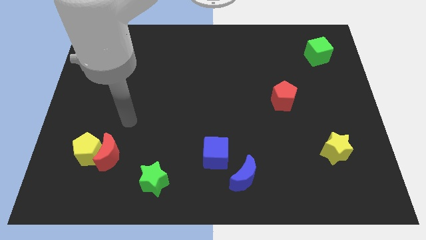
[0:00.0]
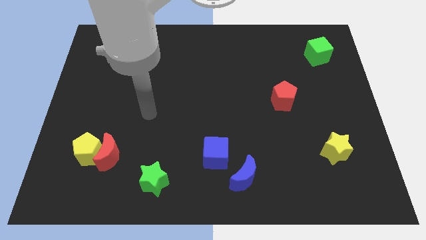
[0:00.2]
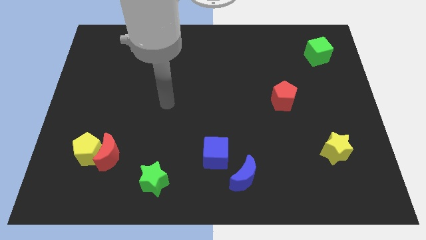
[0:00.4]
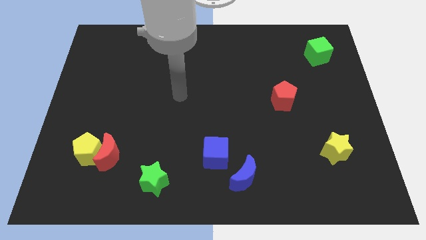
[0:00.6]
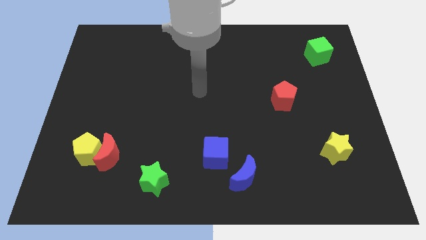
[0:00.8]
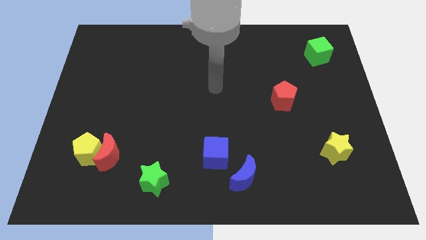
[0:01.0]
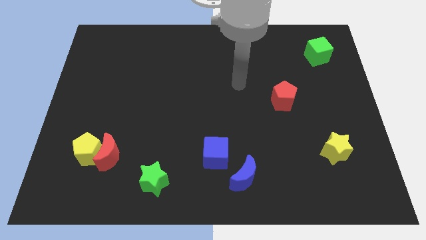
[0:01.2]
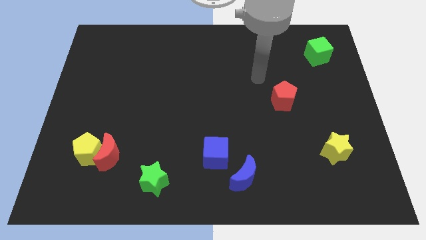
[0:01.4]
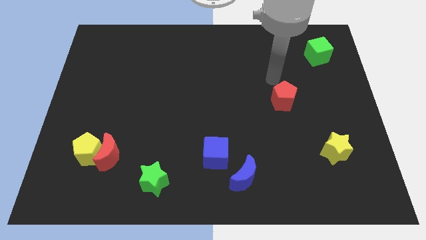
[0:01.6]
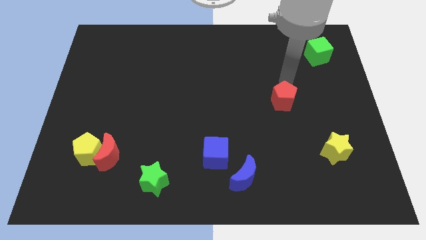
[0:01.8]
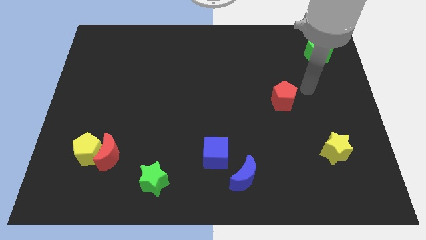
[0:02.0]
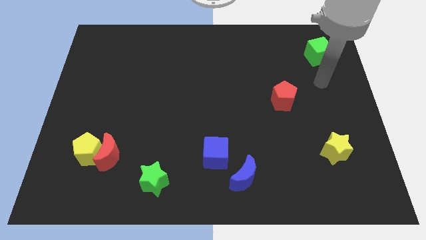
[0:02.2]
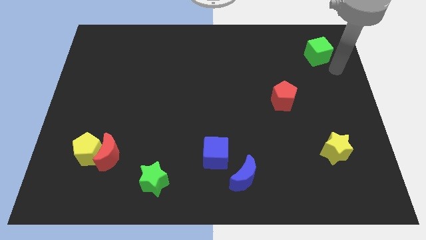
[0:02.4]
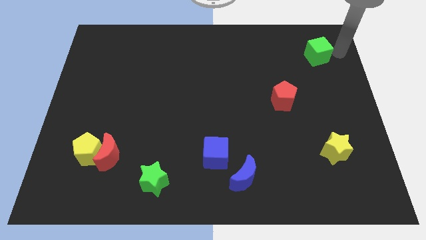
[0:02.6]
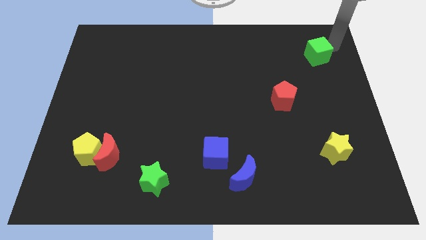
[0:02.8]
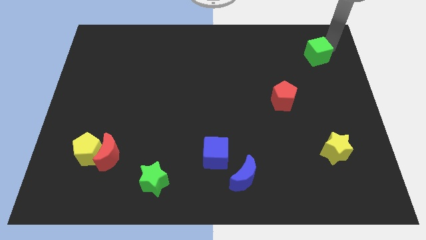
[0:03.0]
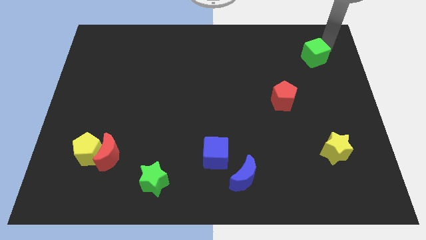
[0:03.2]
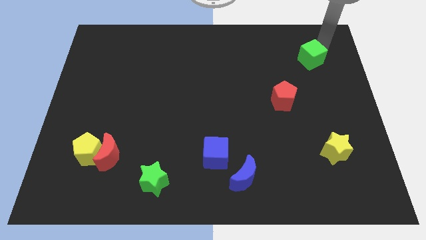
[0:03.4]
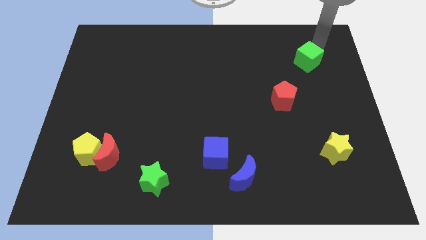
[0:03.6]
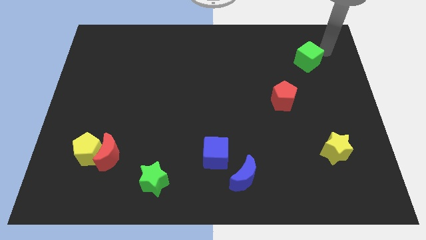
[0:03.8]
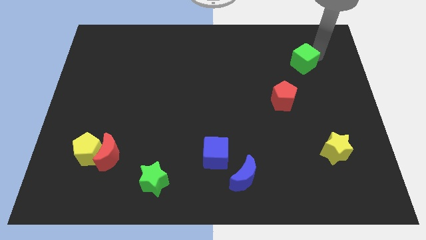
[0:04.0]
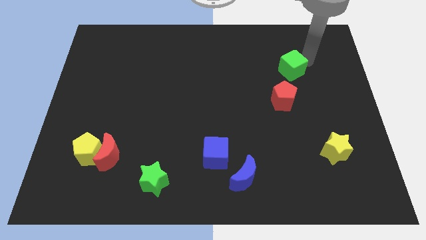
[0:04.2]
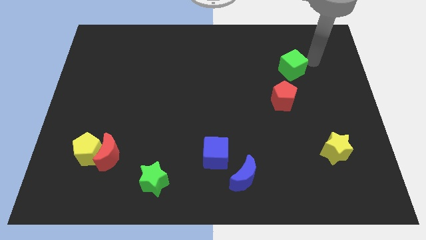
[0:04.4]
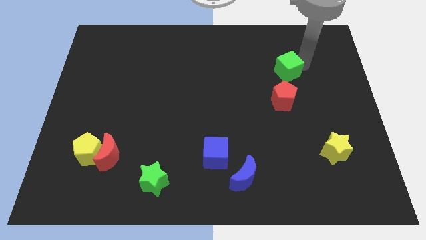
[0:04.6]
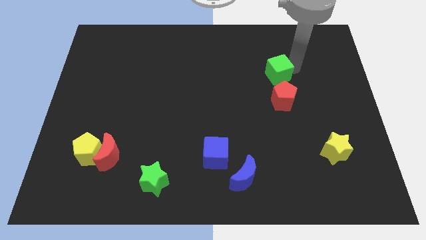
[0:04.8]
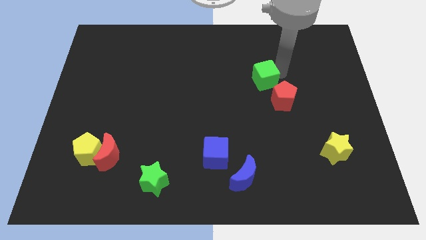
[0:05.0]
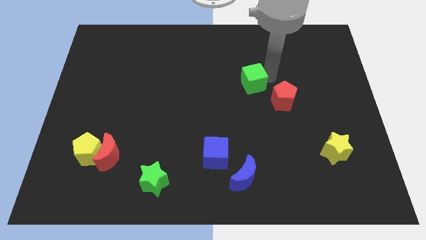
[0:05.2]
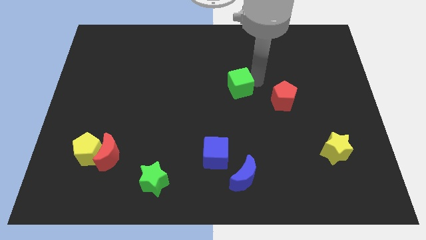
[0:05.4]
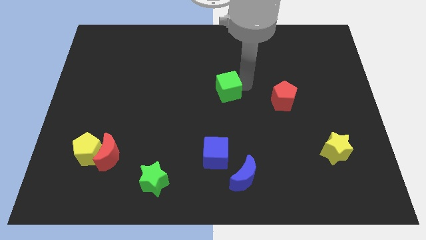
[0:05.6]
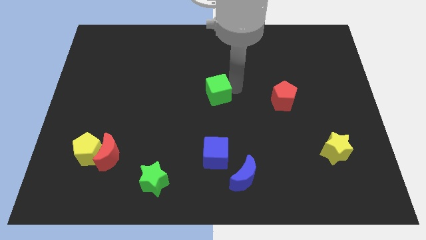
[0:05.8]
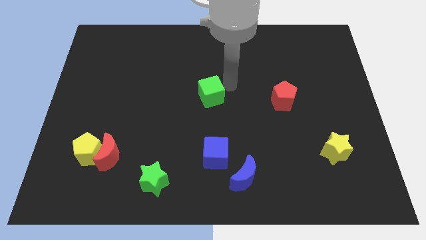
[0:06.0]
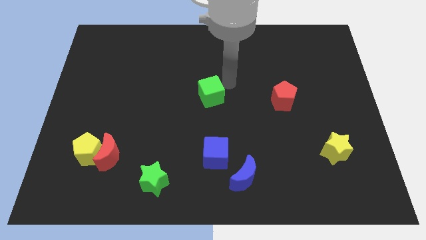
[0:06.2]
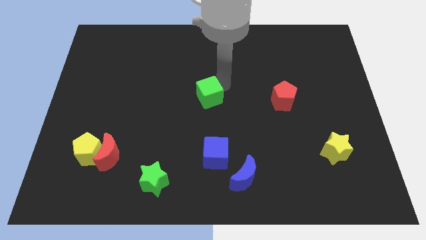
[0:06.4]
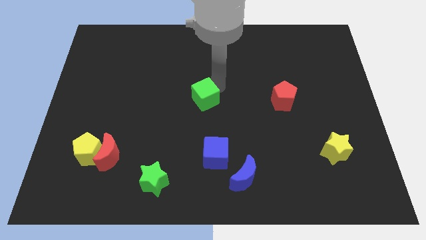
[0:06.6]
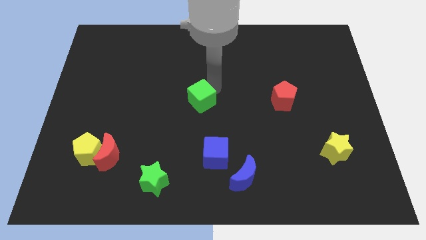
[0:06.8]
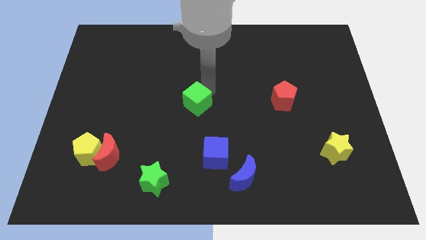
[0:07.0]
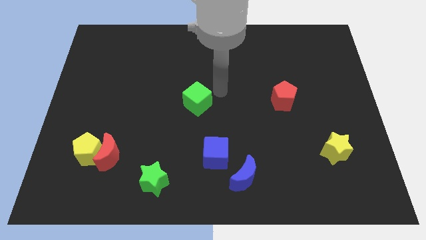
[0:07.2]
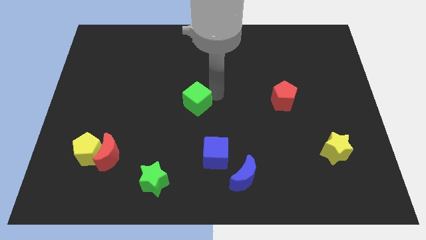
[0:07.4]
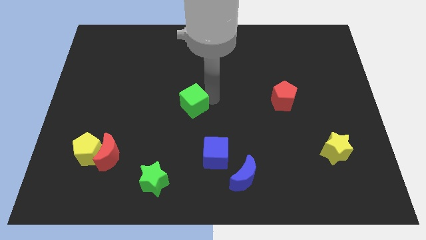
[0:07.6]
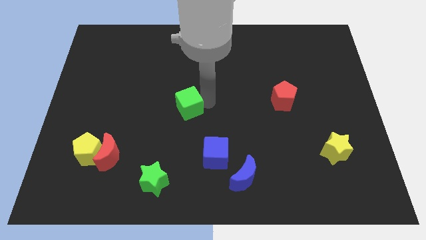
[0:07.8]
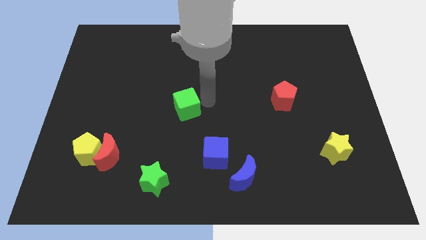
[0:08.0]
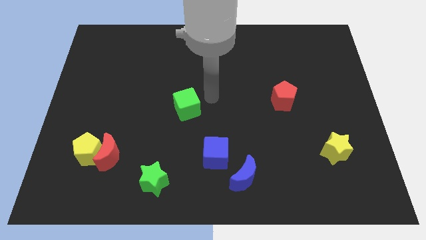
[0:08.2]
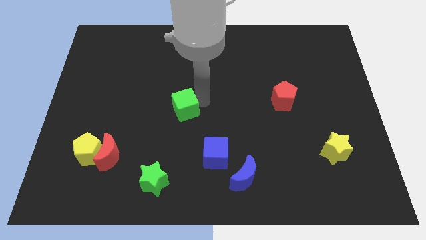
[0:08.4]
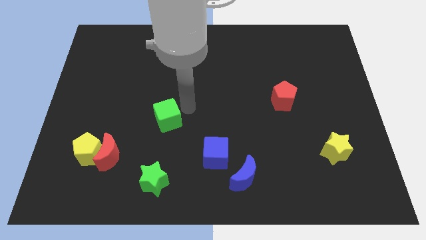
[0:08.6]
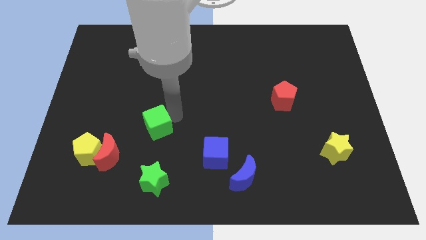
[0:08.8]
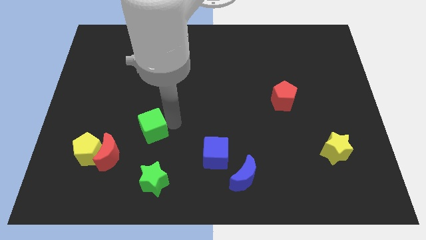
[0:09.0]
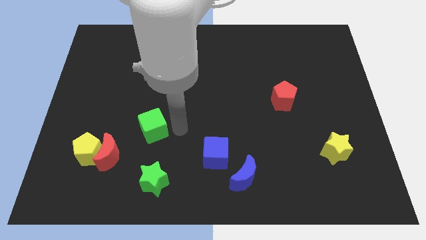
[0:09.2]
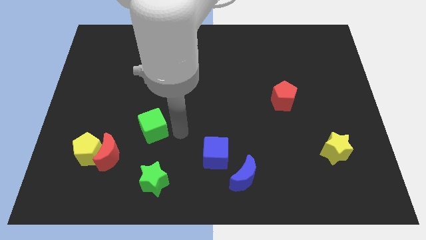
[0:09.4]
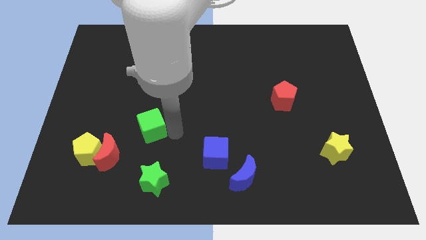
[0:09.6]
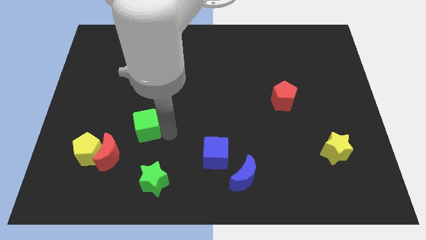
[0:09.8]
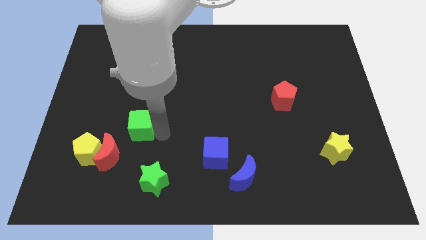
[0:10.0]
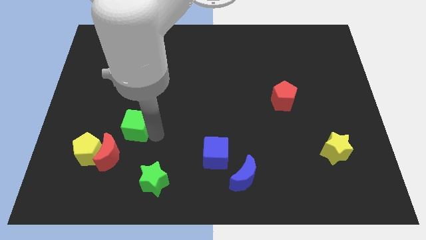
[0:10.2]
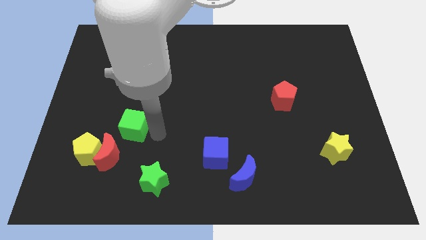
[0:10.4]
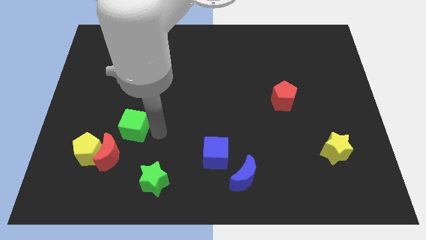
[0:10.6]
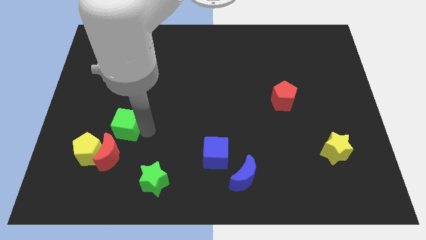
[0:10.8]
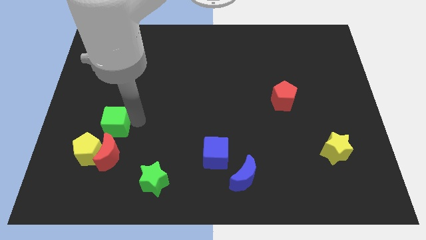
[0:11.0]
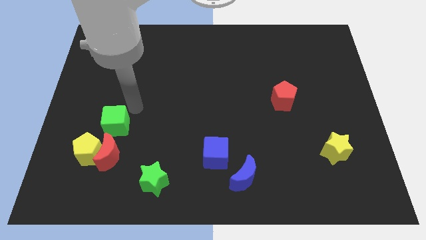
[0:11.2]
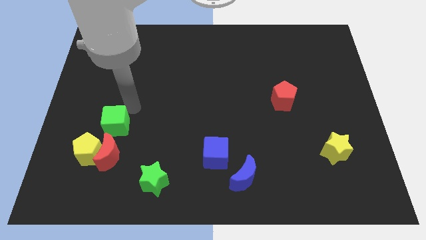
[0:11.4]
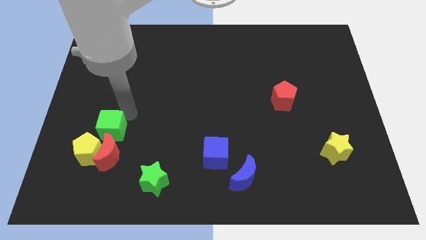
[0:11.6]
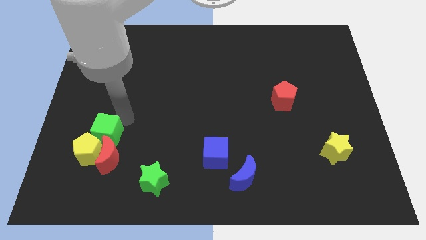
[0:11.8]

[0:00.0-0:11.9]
push the green cube towards the yellow pentagon

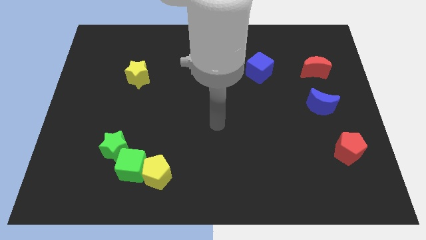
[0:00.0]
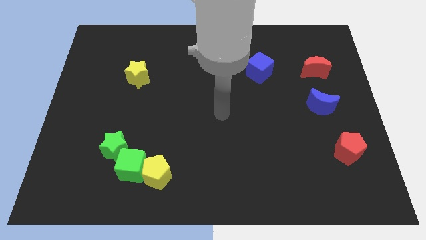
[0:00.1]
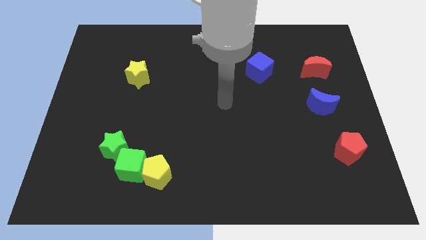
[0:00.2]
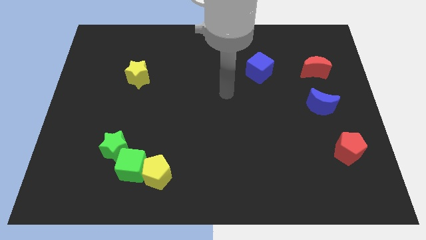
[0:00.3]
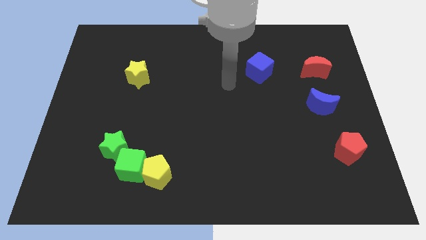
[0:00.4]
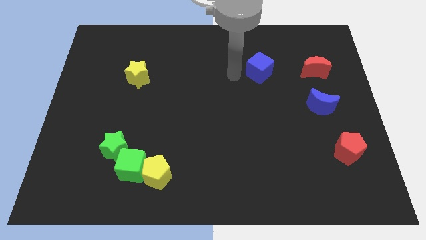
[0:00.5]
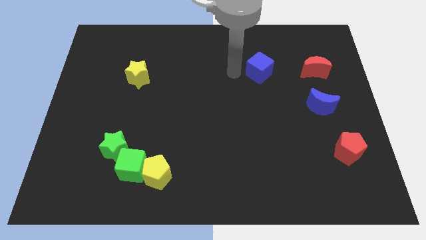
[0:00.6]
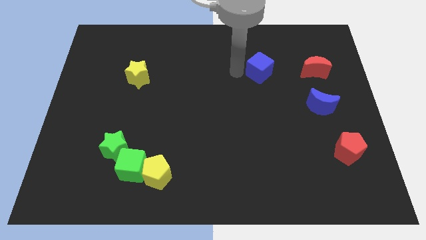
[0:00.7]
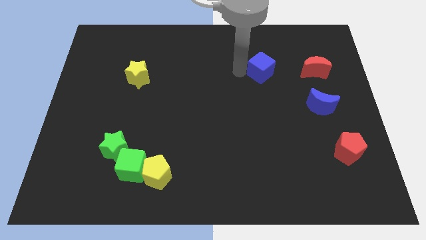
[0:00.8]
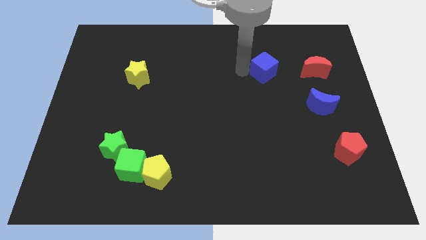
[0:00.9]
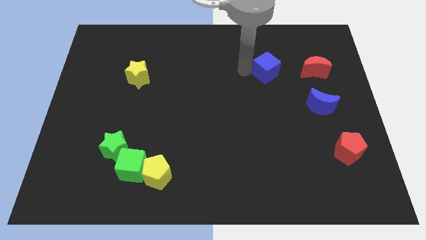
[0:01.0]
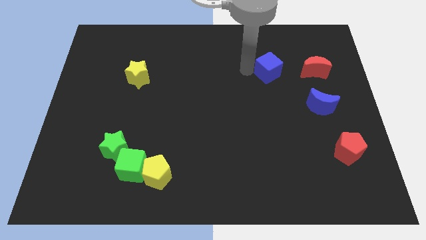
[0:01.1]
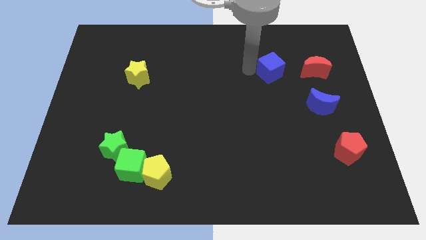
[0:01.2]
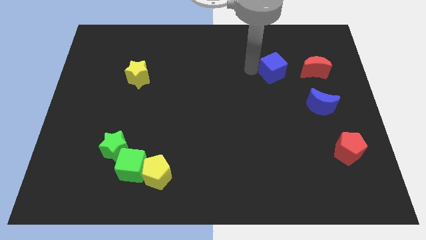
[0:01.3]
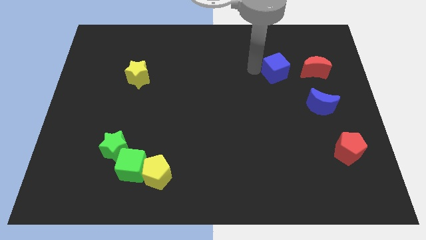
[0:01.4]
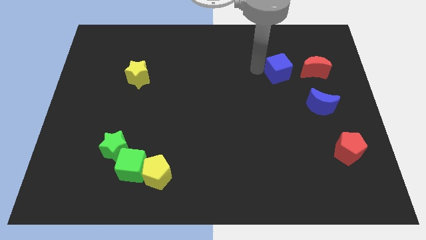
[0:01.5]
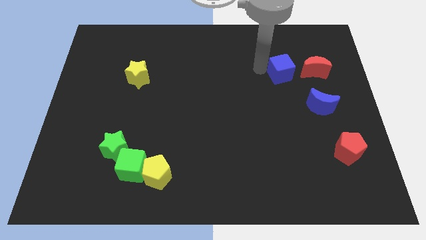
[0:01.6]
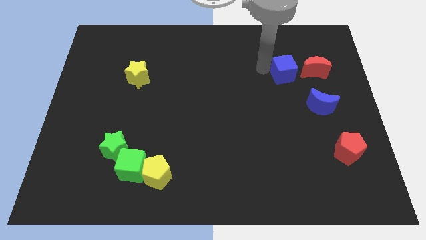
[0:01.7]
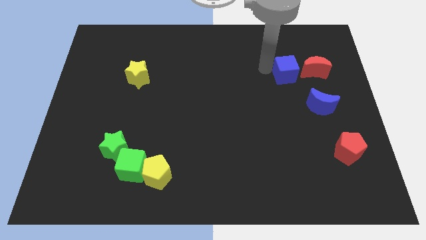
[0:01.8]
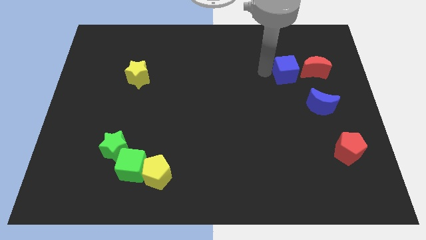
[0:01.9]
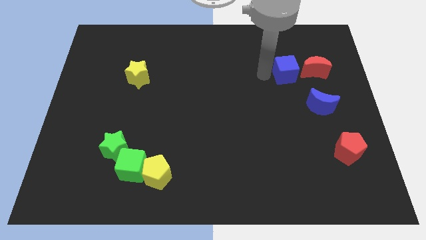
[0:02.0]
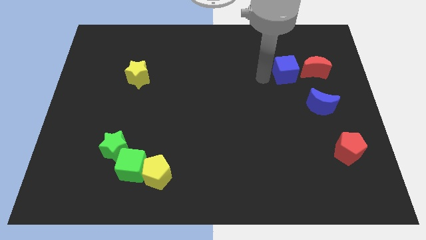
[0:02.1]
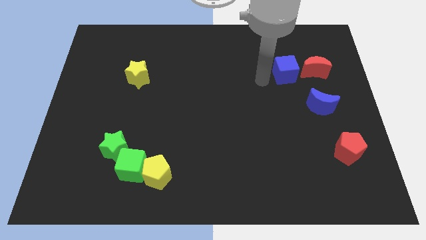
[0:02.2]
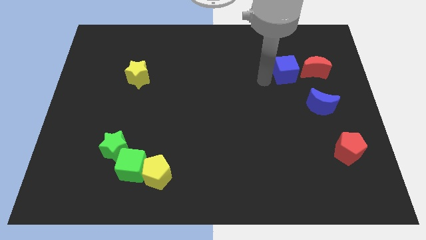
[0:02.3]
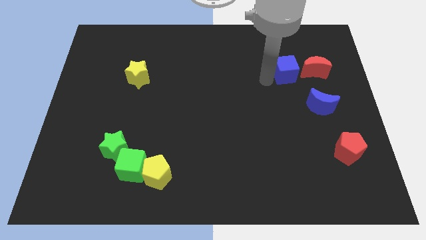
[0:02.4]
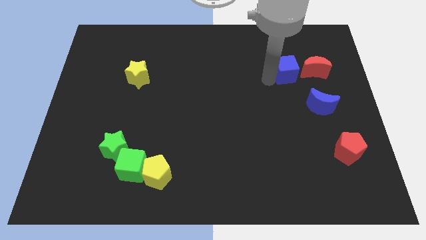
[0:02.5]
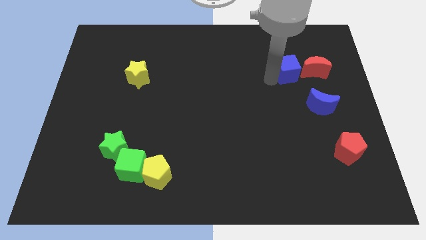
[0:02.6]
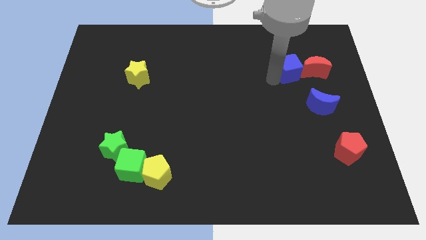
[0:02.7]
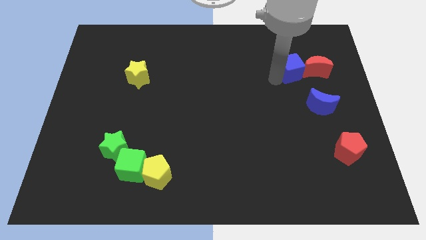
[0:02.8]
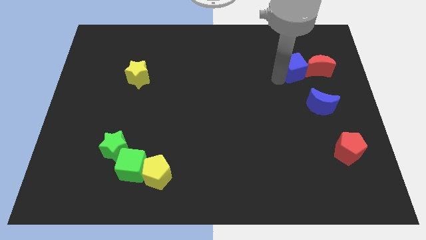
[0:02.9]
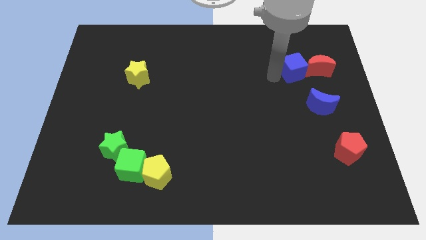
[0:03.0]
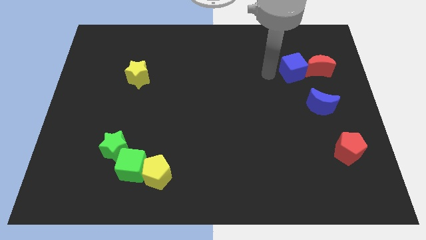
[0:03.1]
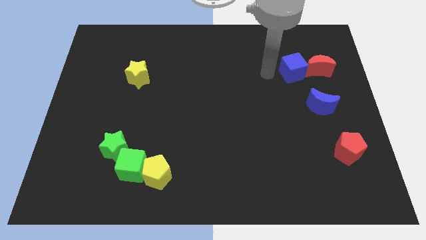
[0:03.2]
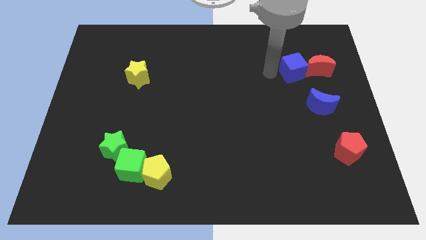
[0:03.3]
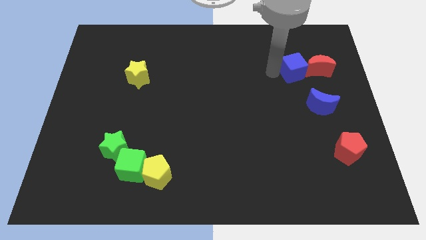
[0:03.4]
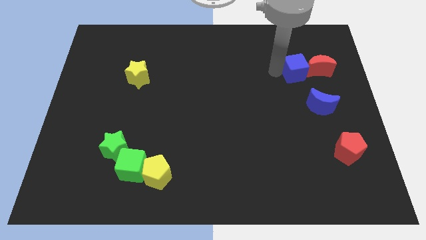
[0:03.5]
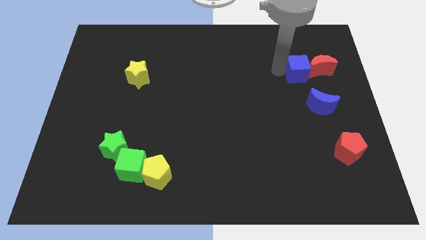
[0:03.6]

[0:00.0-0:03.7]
push the blue cube towards the red moon
